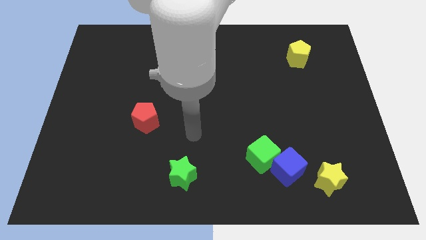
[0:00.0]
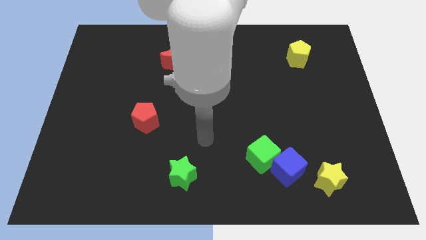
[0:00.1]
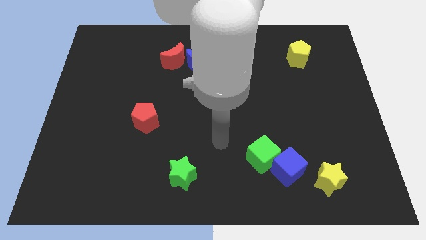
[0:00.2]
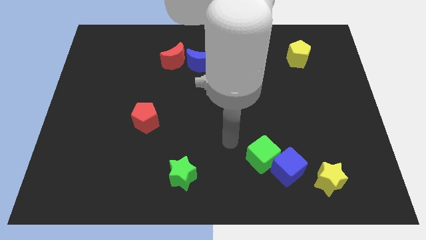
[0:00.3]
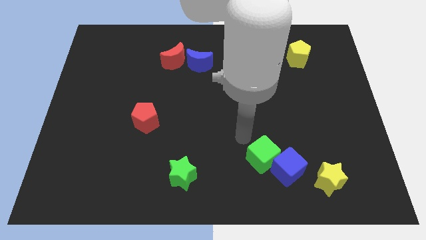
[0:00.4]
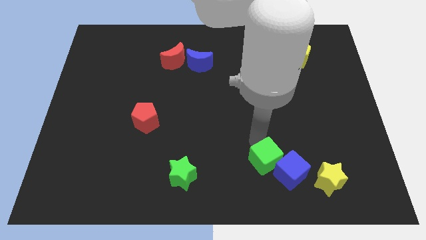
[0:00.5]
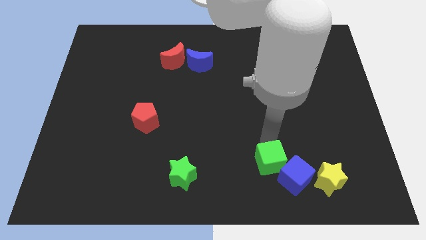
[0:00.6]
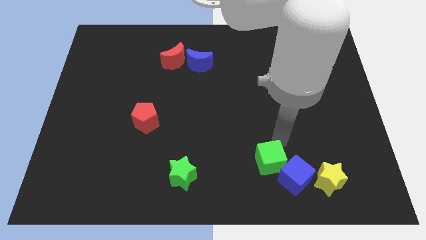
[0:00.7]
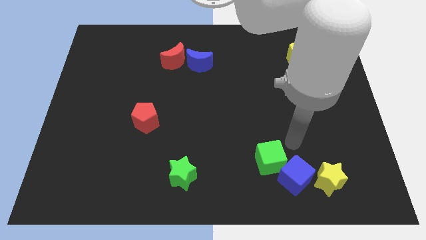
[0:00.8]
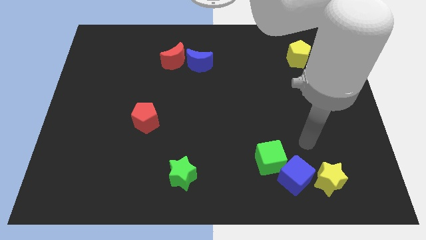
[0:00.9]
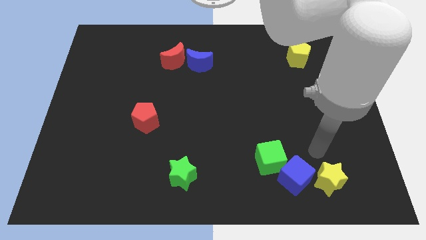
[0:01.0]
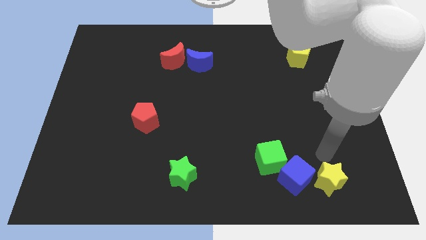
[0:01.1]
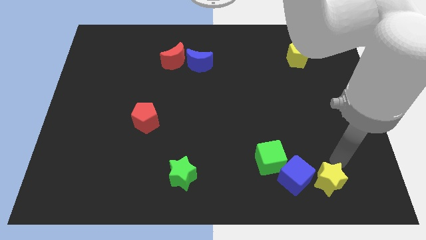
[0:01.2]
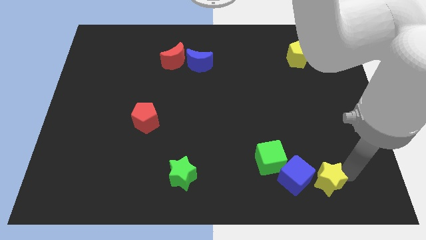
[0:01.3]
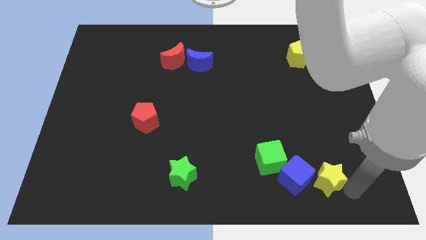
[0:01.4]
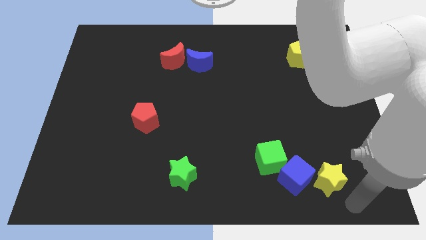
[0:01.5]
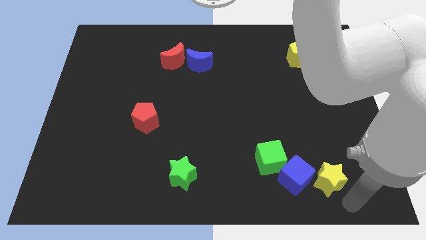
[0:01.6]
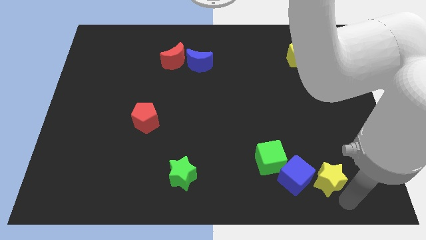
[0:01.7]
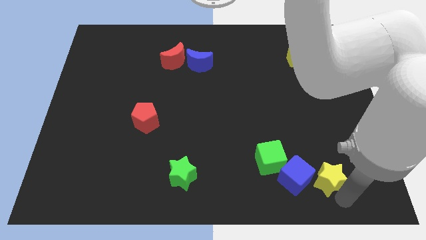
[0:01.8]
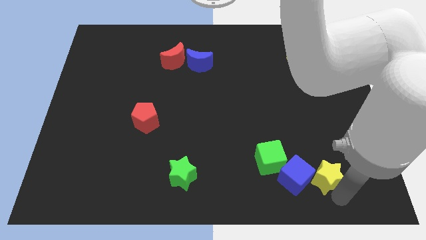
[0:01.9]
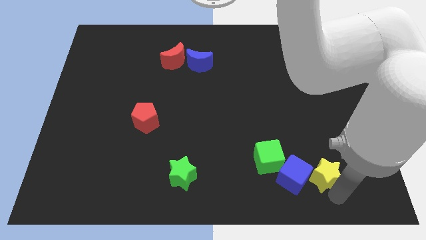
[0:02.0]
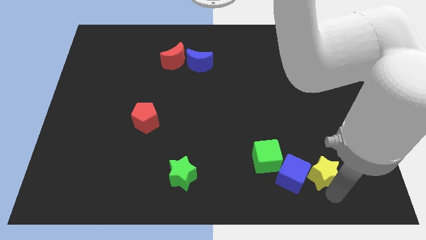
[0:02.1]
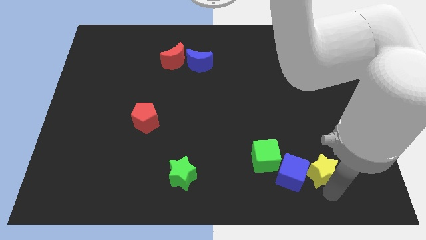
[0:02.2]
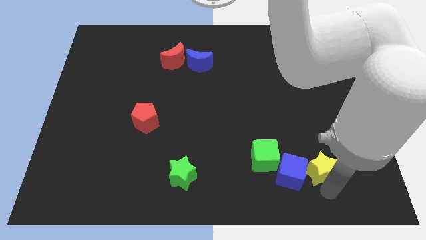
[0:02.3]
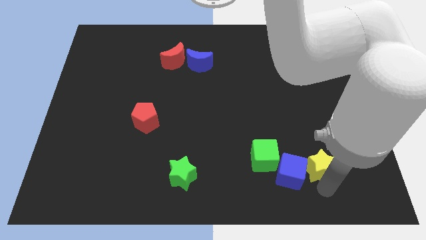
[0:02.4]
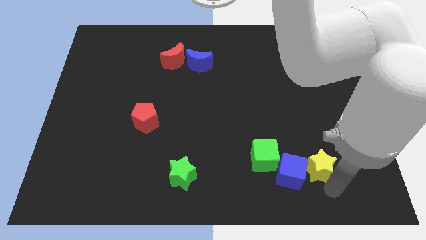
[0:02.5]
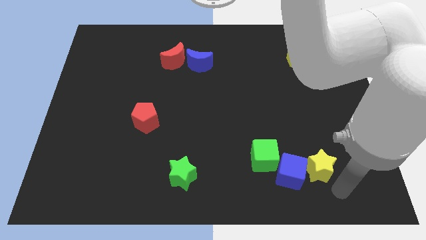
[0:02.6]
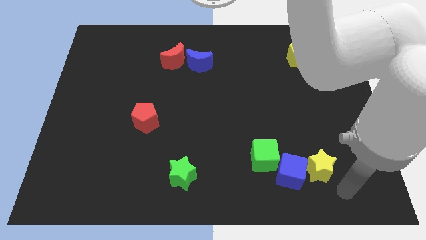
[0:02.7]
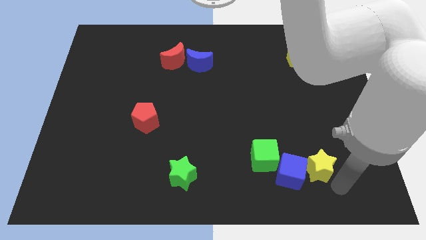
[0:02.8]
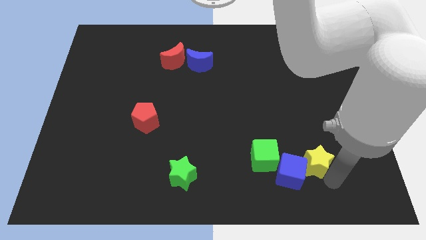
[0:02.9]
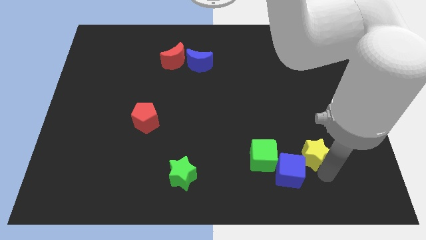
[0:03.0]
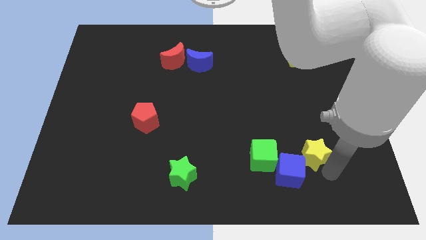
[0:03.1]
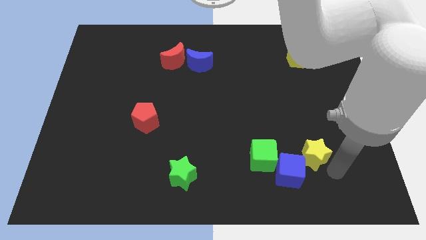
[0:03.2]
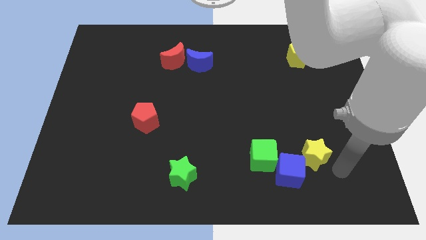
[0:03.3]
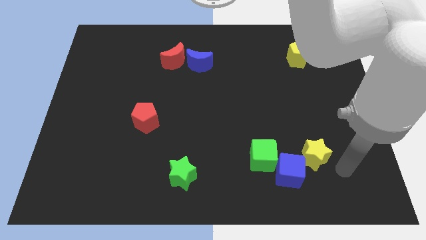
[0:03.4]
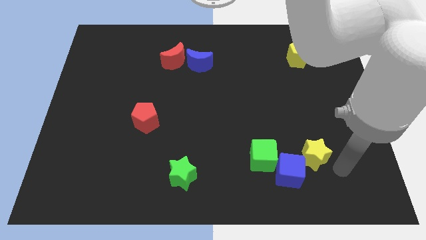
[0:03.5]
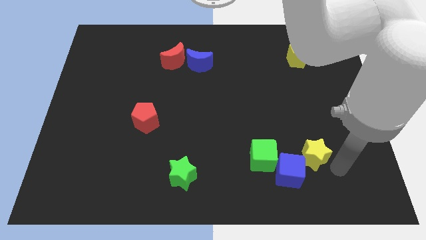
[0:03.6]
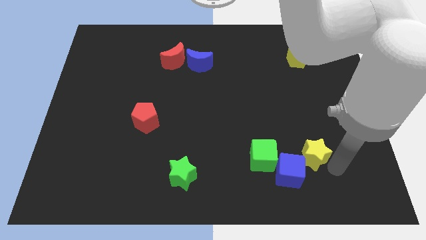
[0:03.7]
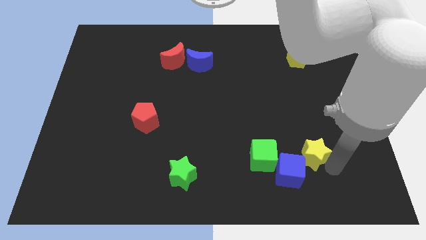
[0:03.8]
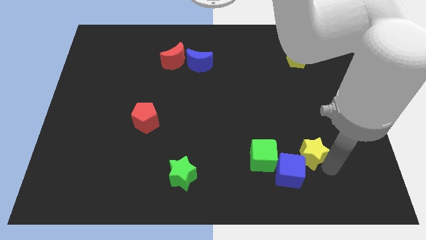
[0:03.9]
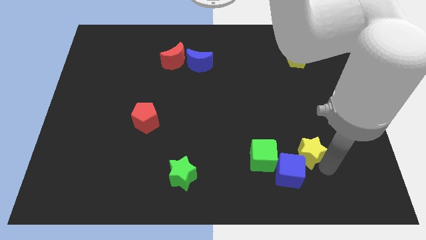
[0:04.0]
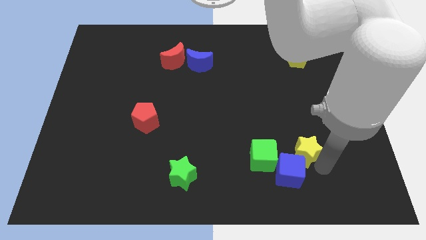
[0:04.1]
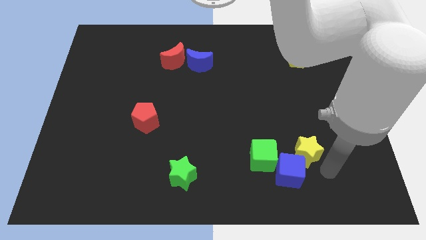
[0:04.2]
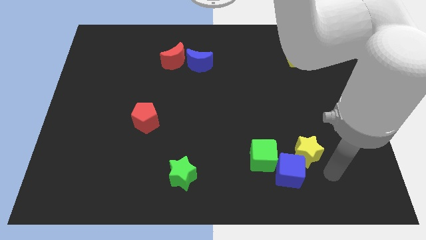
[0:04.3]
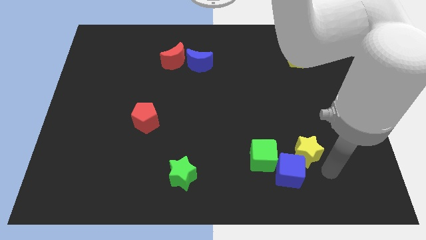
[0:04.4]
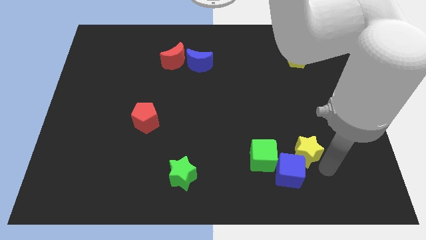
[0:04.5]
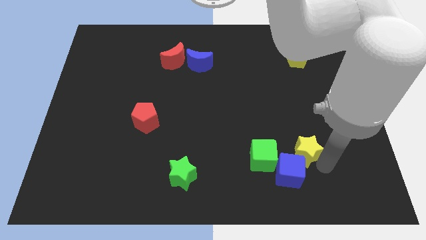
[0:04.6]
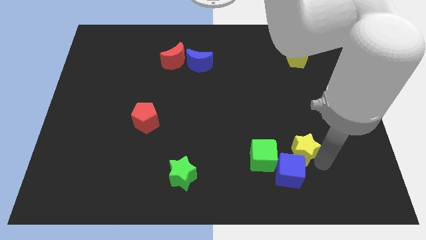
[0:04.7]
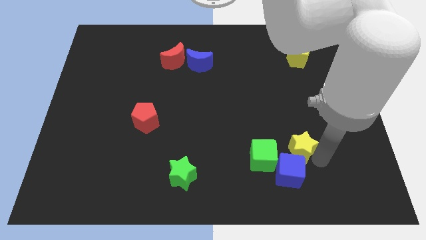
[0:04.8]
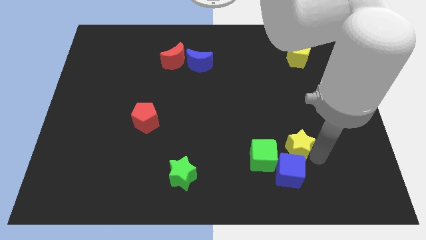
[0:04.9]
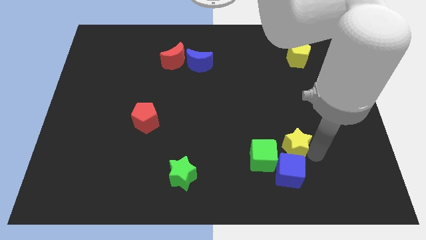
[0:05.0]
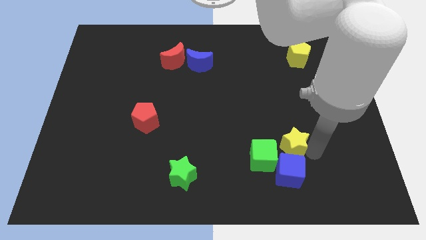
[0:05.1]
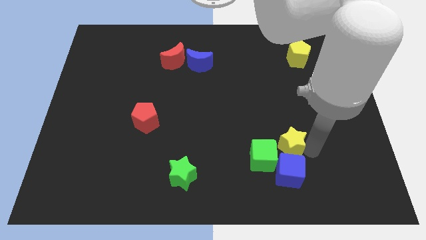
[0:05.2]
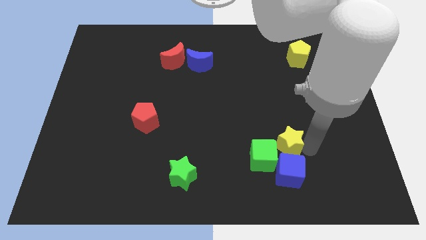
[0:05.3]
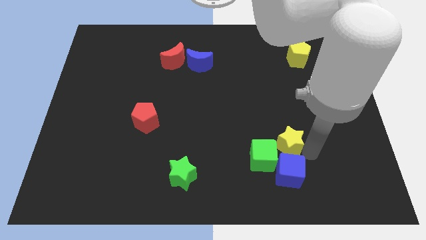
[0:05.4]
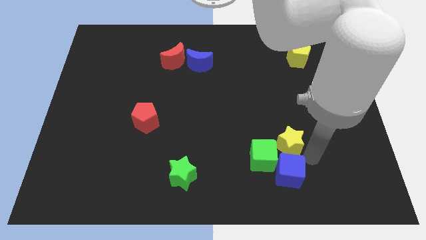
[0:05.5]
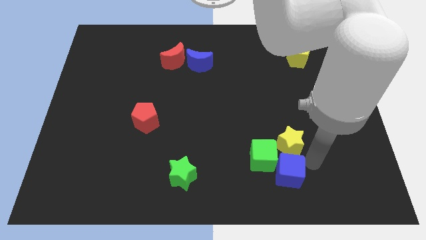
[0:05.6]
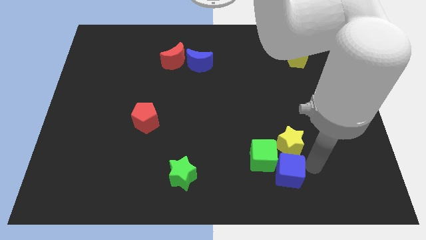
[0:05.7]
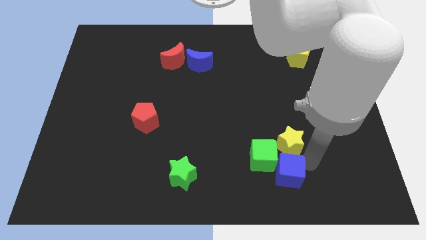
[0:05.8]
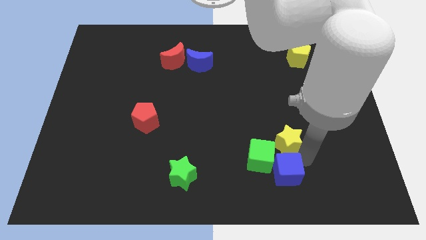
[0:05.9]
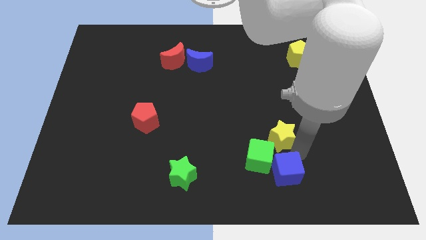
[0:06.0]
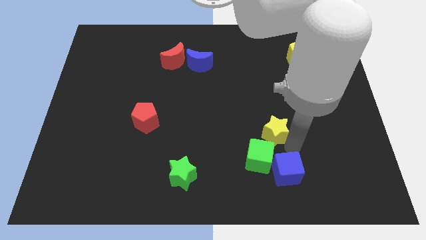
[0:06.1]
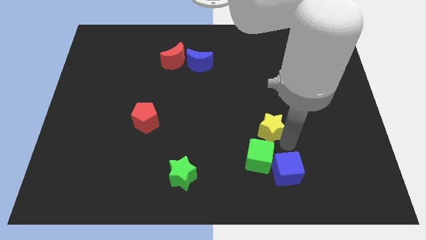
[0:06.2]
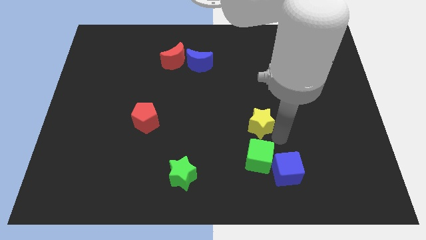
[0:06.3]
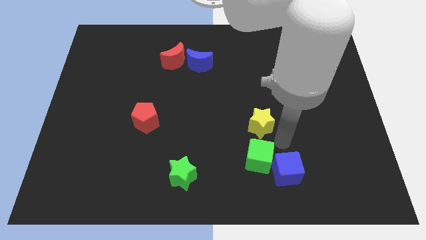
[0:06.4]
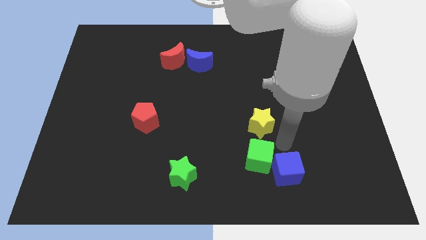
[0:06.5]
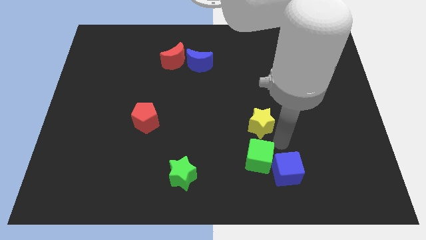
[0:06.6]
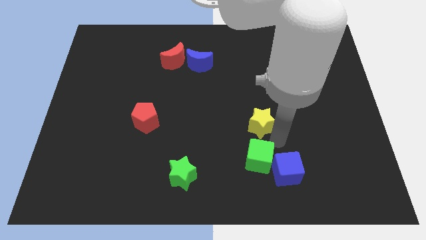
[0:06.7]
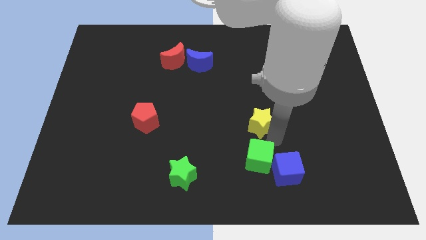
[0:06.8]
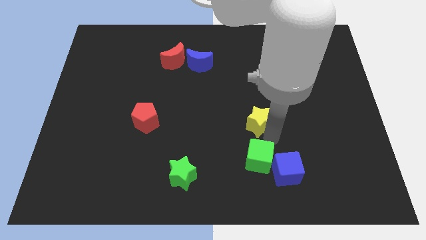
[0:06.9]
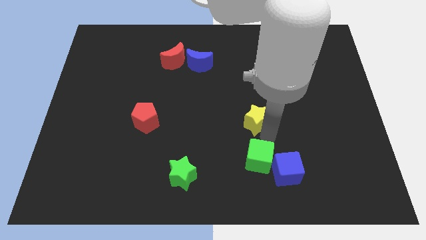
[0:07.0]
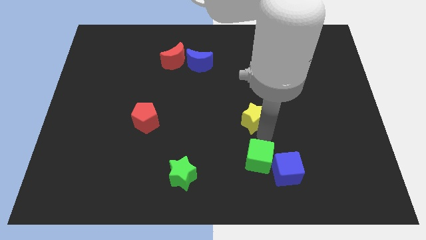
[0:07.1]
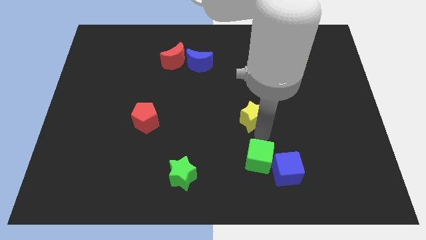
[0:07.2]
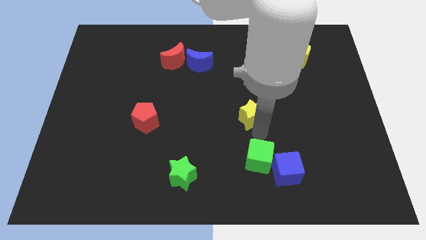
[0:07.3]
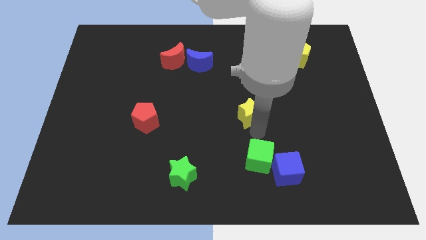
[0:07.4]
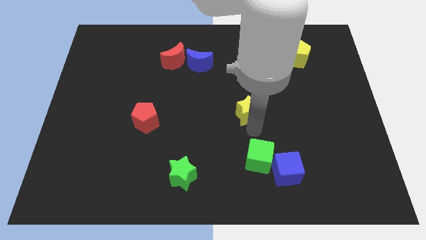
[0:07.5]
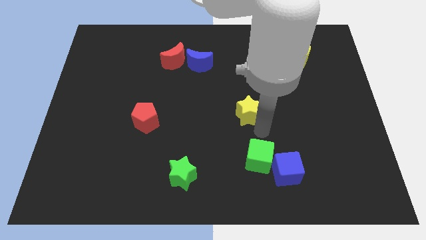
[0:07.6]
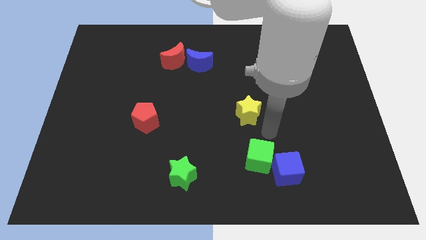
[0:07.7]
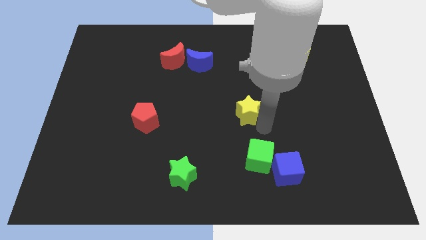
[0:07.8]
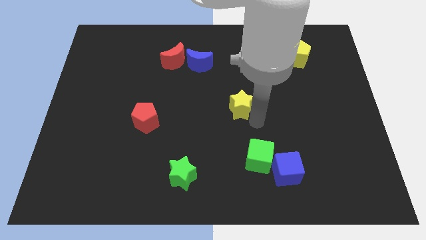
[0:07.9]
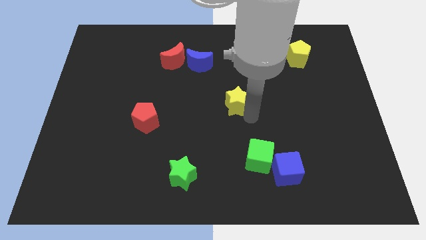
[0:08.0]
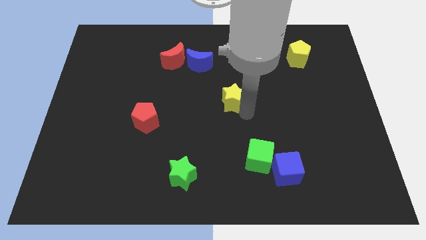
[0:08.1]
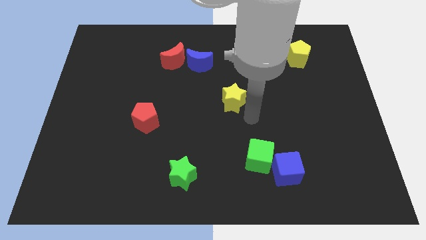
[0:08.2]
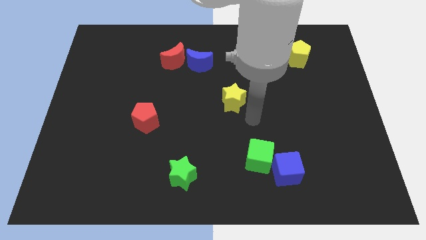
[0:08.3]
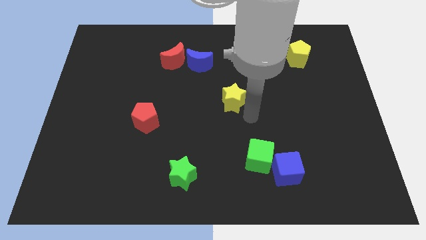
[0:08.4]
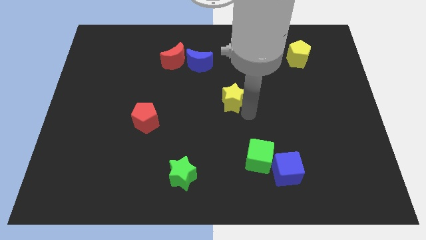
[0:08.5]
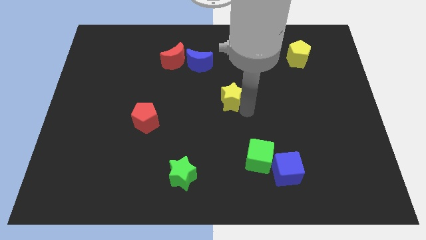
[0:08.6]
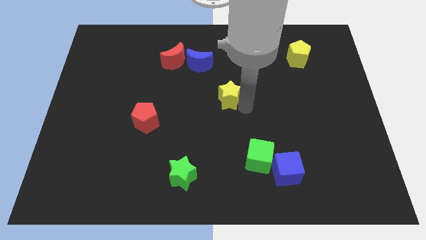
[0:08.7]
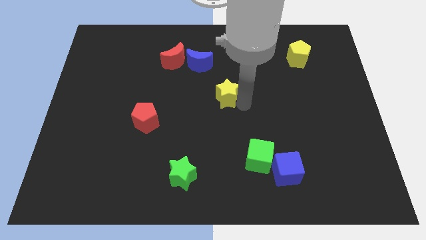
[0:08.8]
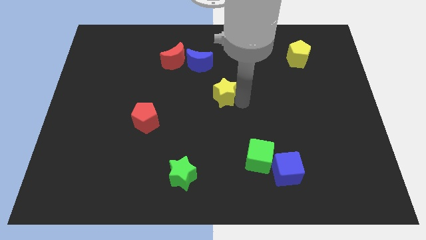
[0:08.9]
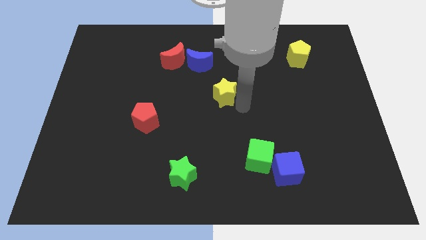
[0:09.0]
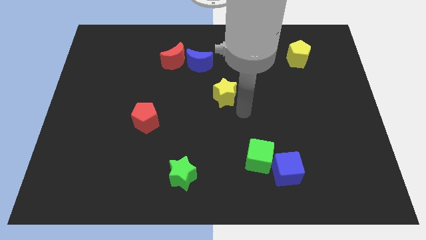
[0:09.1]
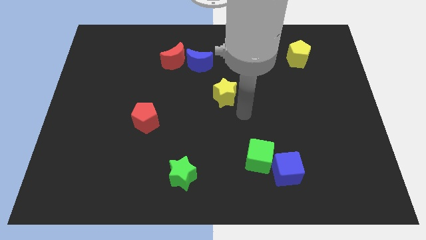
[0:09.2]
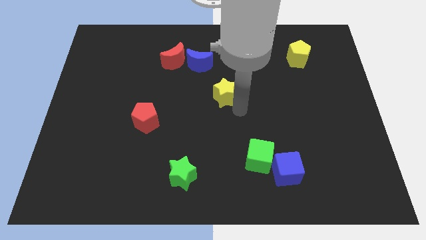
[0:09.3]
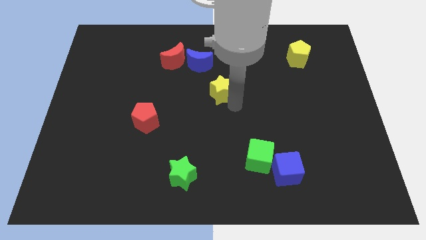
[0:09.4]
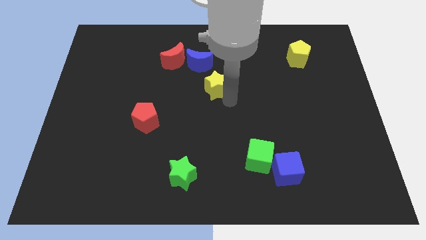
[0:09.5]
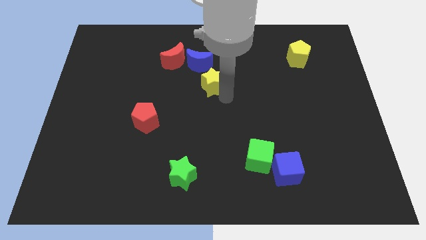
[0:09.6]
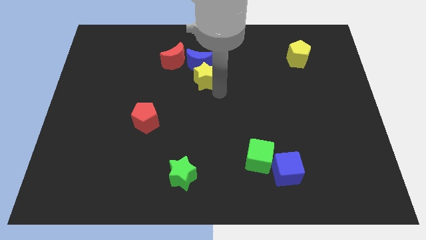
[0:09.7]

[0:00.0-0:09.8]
slide the yellow star close to the blue moon
